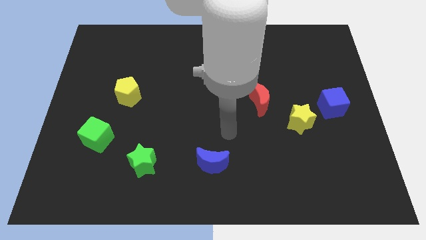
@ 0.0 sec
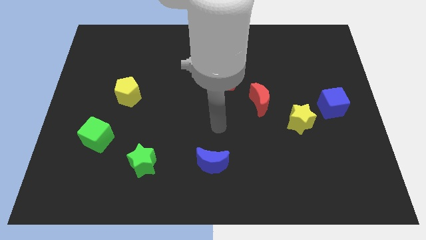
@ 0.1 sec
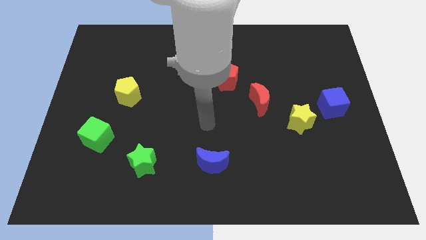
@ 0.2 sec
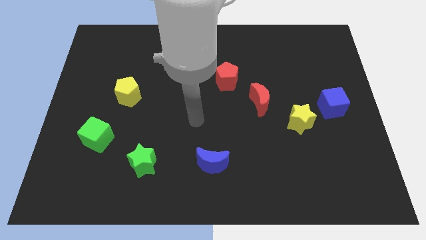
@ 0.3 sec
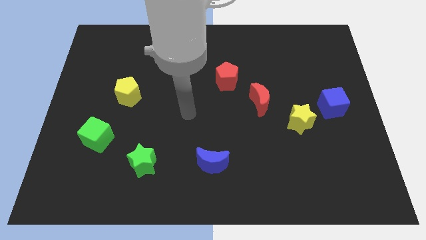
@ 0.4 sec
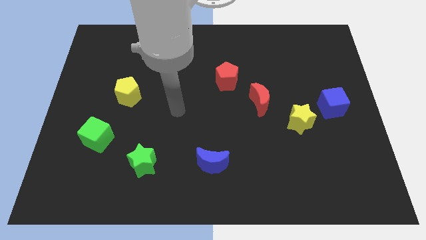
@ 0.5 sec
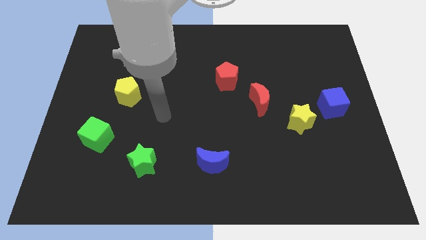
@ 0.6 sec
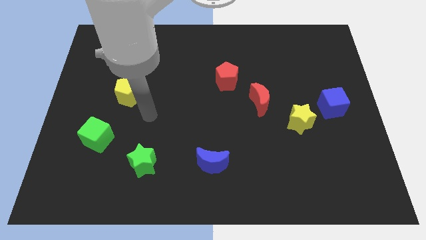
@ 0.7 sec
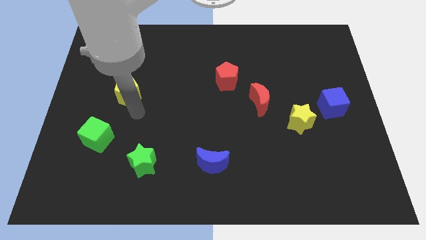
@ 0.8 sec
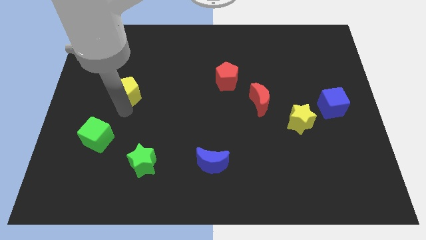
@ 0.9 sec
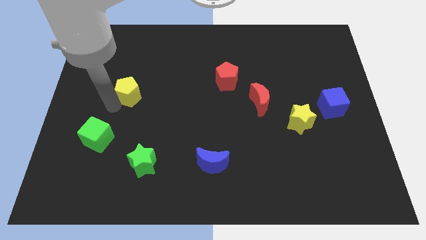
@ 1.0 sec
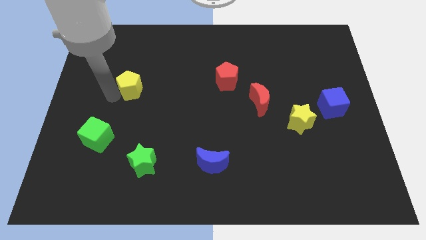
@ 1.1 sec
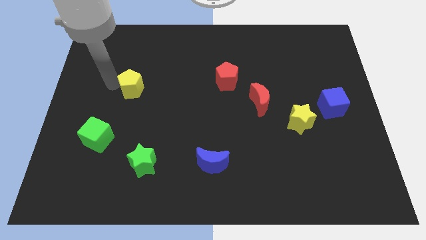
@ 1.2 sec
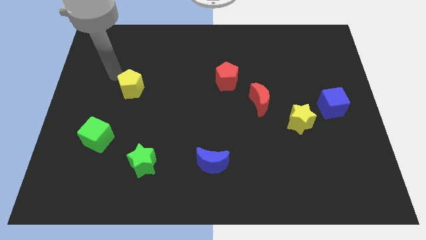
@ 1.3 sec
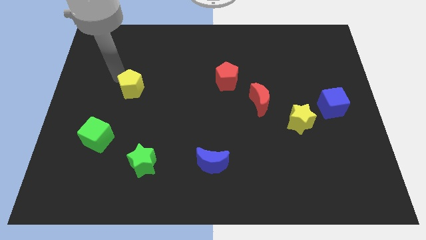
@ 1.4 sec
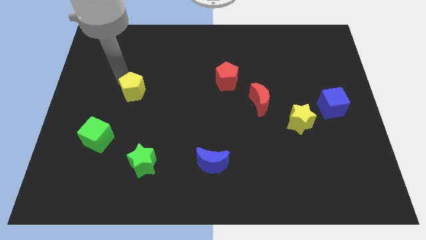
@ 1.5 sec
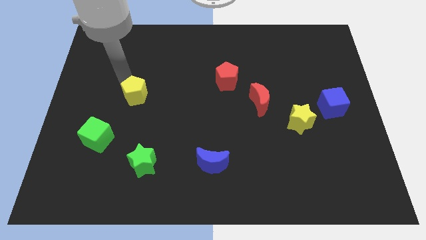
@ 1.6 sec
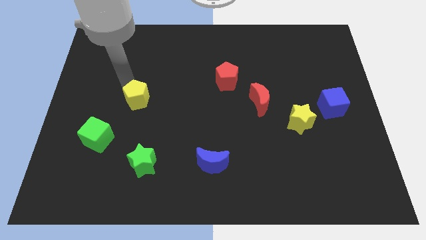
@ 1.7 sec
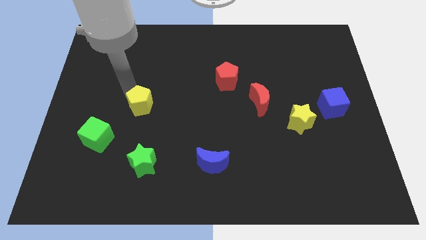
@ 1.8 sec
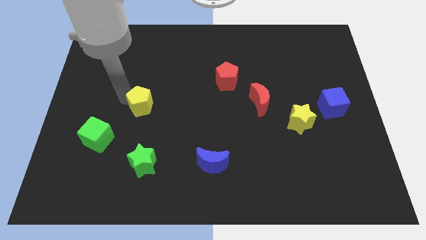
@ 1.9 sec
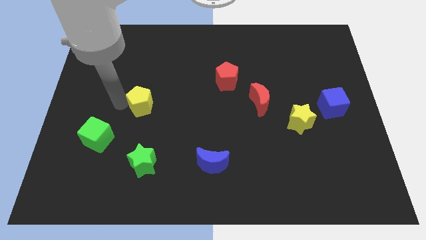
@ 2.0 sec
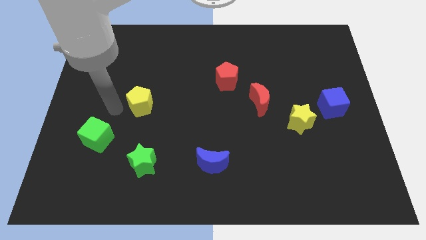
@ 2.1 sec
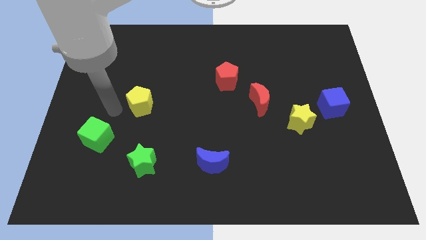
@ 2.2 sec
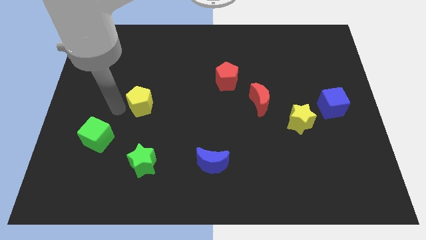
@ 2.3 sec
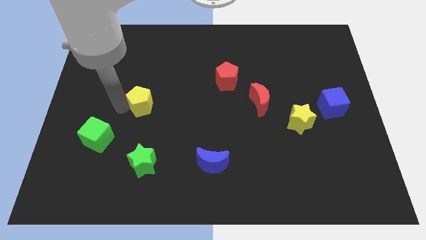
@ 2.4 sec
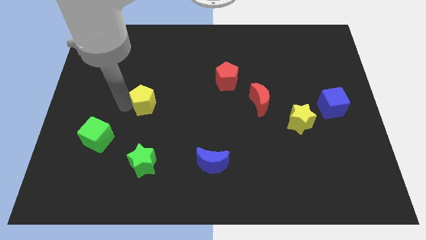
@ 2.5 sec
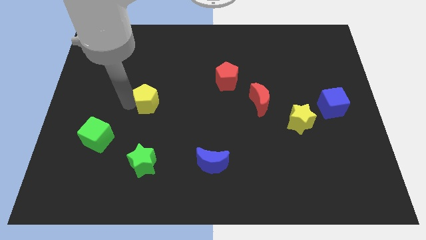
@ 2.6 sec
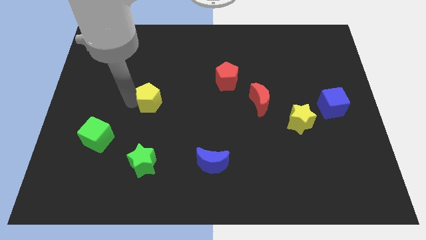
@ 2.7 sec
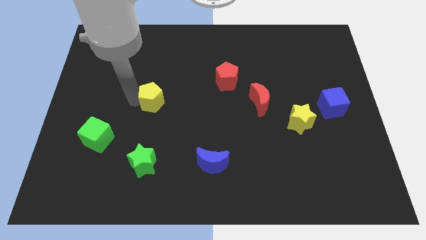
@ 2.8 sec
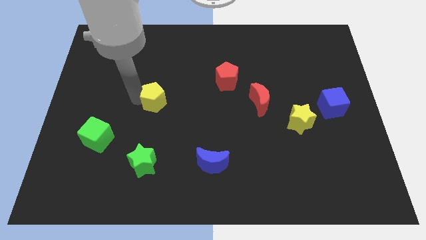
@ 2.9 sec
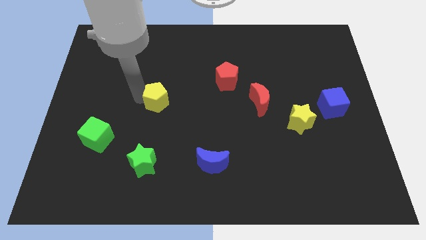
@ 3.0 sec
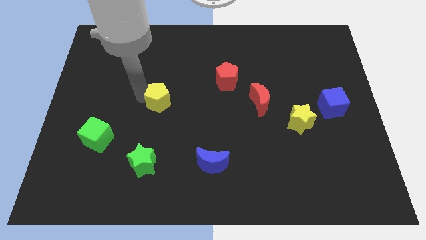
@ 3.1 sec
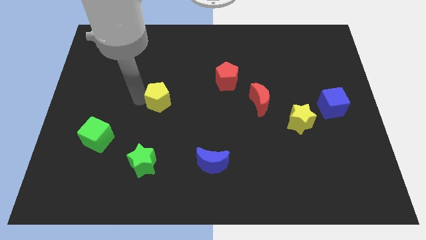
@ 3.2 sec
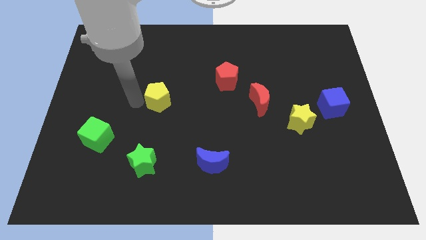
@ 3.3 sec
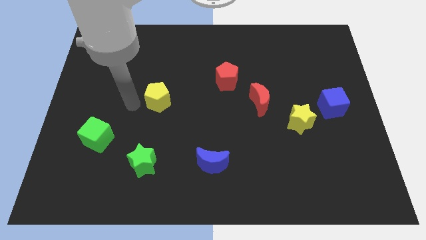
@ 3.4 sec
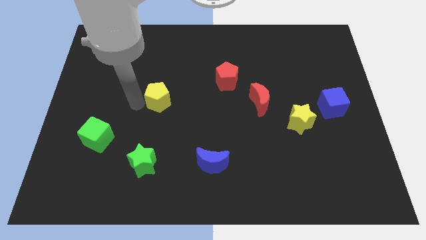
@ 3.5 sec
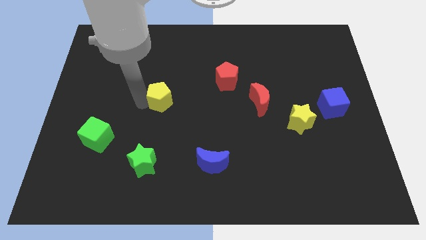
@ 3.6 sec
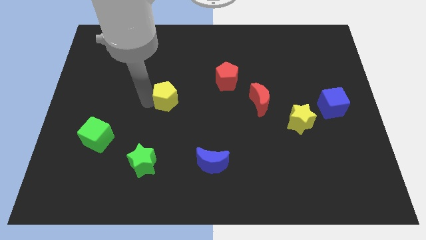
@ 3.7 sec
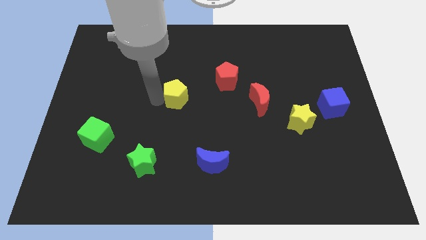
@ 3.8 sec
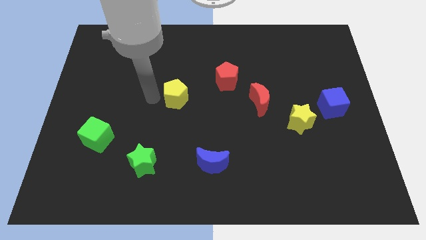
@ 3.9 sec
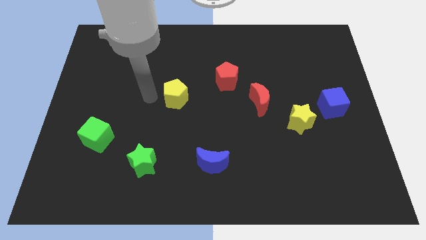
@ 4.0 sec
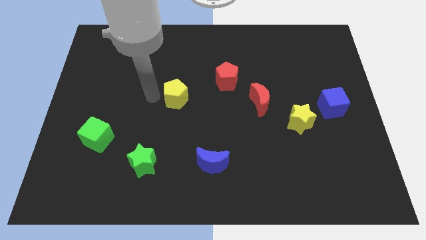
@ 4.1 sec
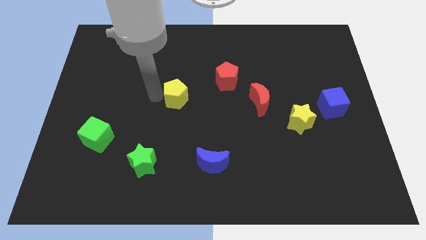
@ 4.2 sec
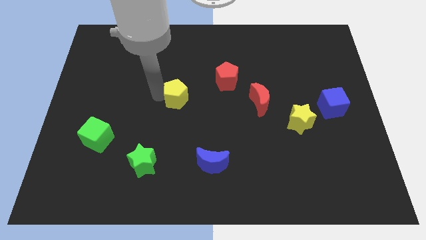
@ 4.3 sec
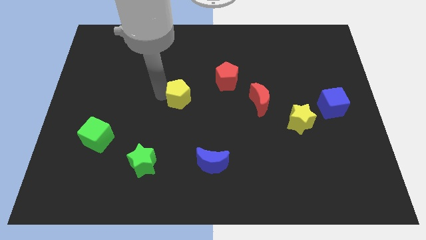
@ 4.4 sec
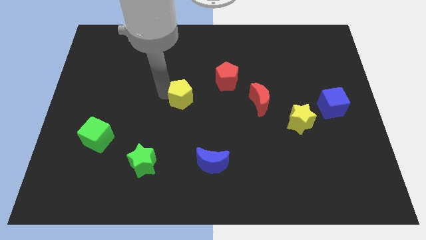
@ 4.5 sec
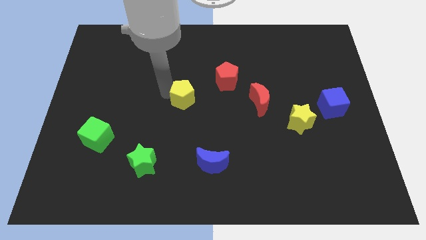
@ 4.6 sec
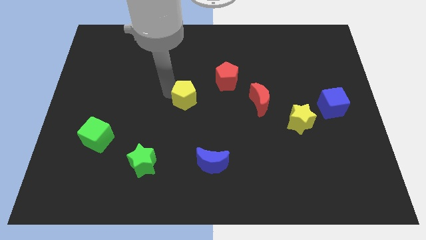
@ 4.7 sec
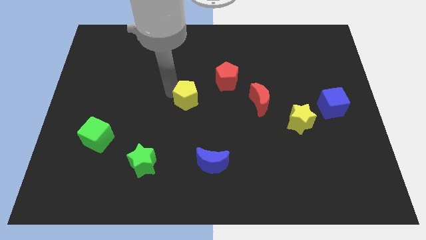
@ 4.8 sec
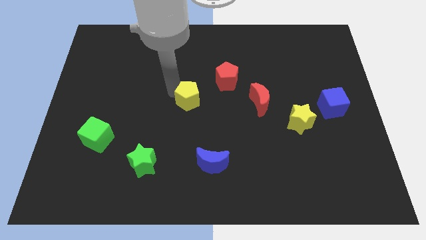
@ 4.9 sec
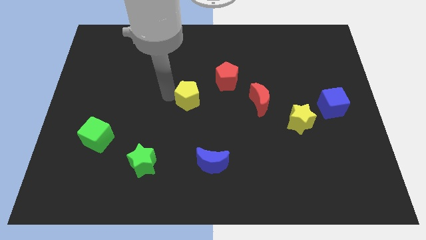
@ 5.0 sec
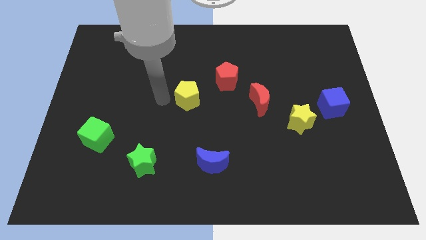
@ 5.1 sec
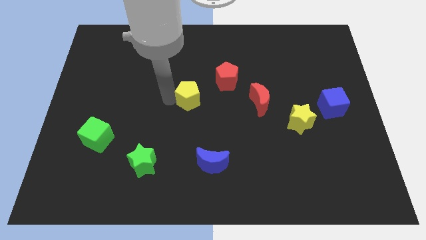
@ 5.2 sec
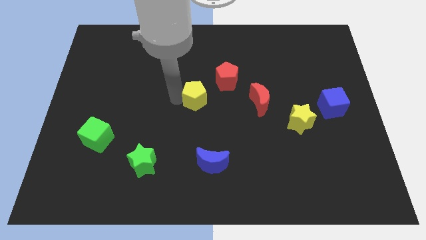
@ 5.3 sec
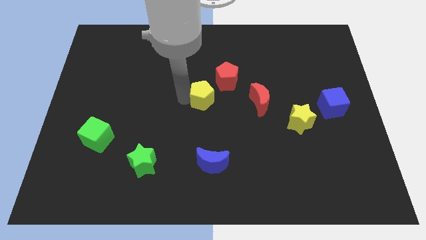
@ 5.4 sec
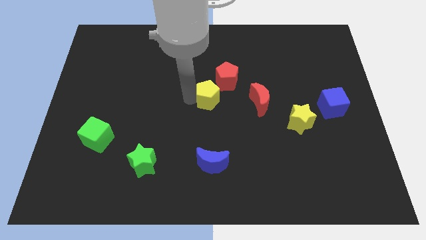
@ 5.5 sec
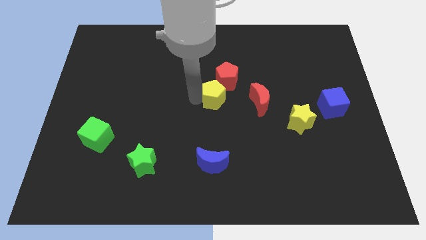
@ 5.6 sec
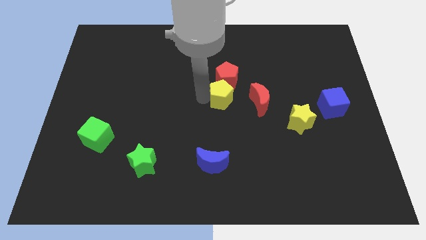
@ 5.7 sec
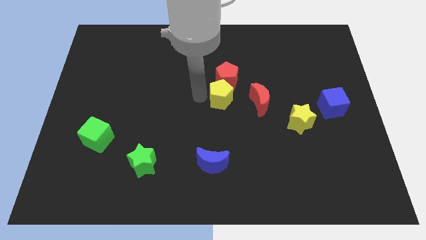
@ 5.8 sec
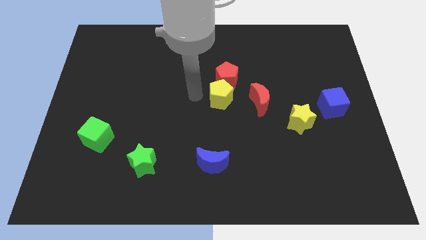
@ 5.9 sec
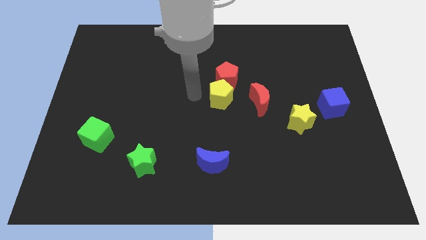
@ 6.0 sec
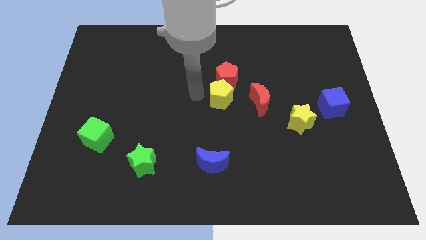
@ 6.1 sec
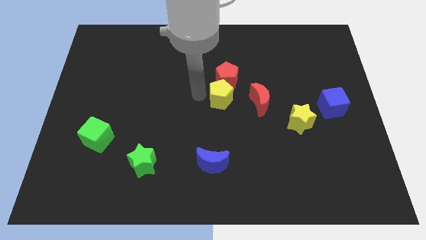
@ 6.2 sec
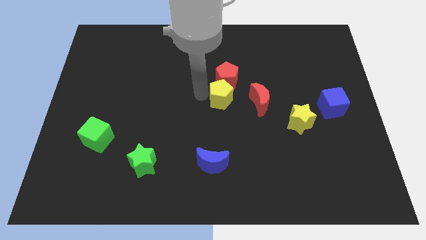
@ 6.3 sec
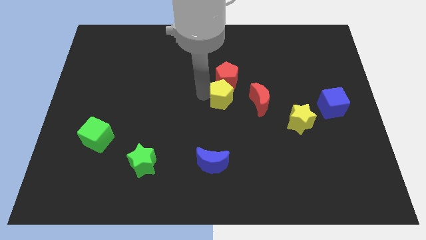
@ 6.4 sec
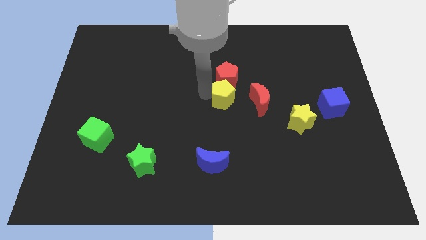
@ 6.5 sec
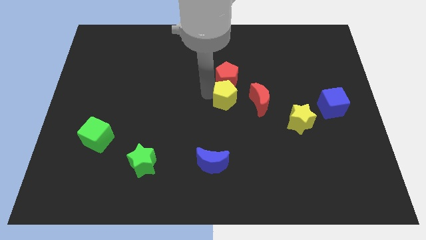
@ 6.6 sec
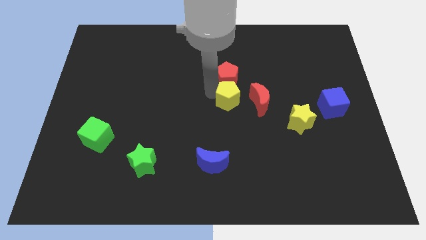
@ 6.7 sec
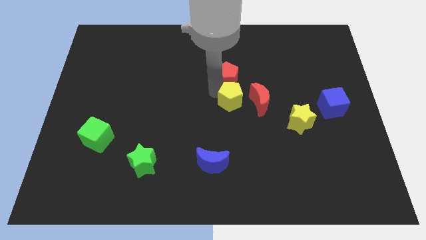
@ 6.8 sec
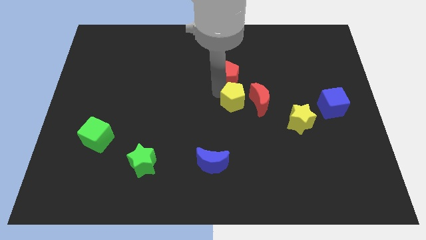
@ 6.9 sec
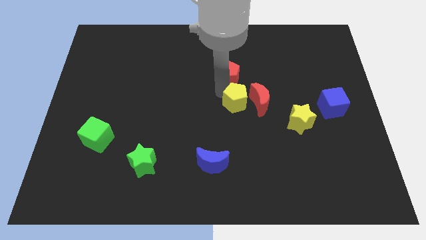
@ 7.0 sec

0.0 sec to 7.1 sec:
move the yellow pentagon towards the red moon
